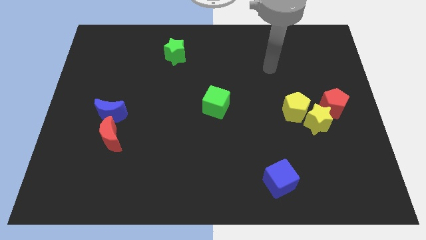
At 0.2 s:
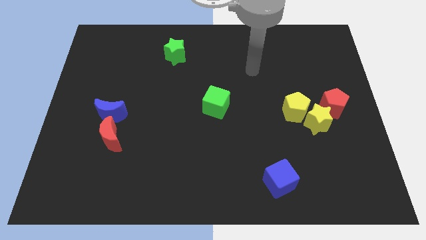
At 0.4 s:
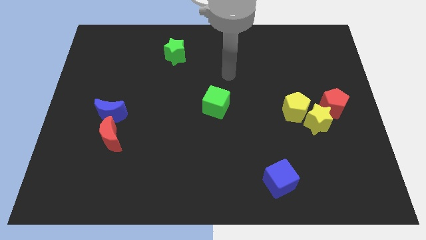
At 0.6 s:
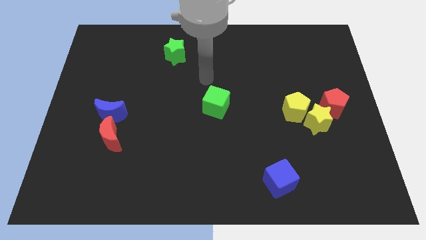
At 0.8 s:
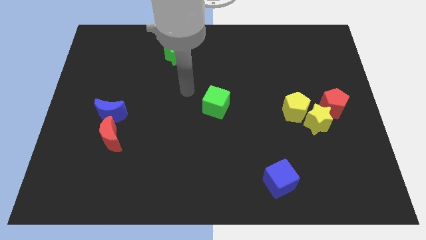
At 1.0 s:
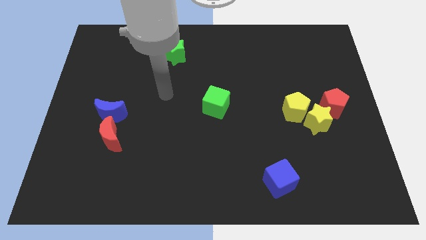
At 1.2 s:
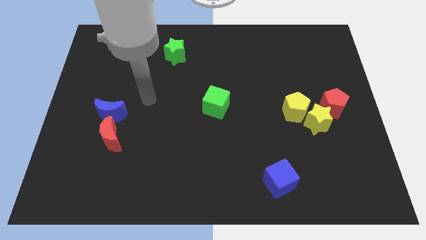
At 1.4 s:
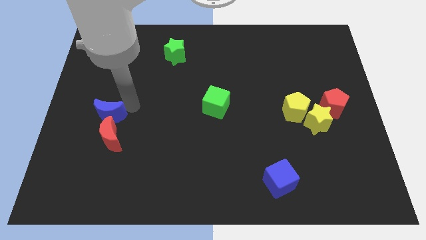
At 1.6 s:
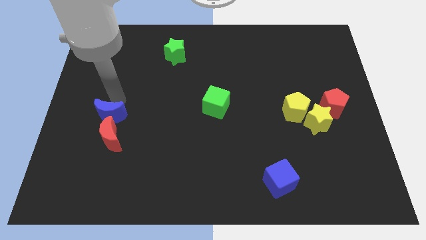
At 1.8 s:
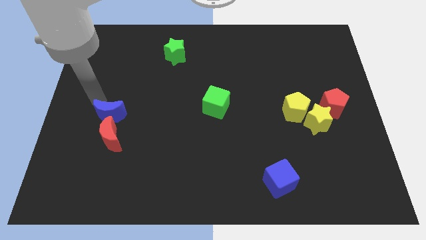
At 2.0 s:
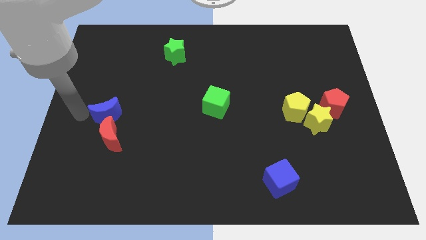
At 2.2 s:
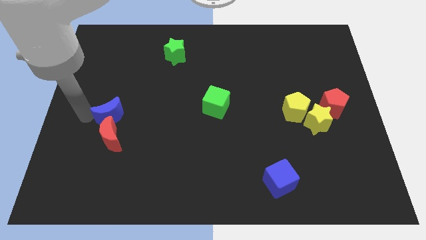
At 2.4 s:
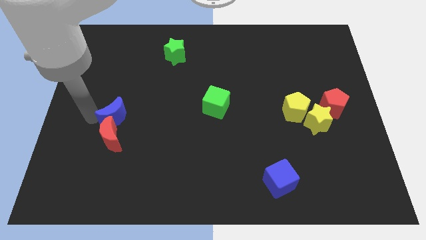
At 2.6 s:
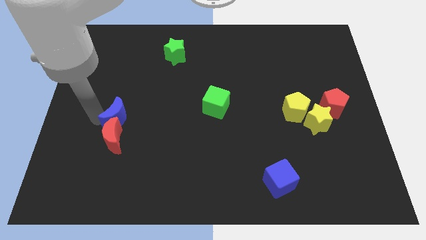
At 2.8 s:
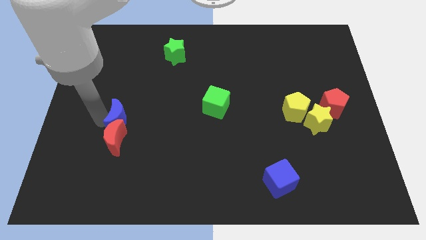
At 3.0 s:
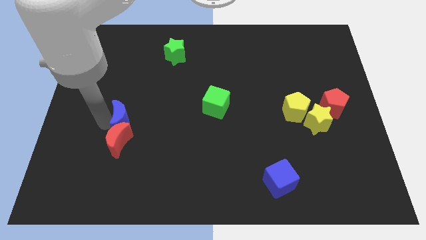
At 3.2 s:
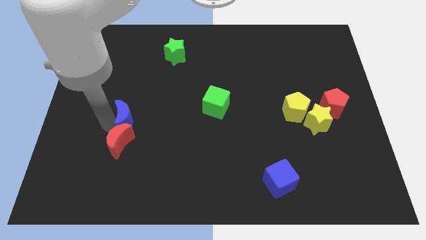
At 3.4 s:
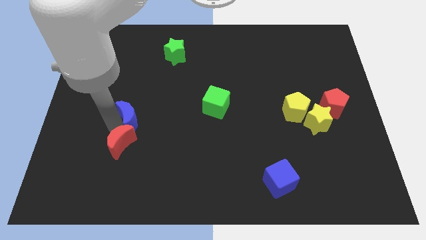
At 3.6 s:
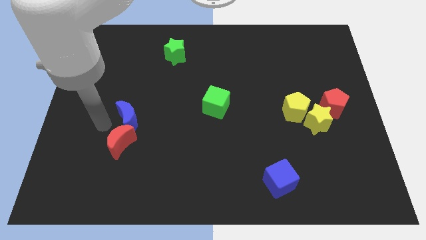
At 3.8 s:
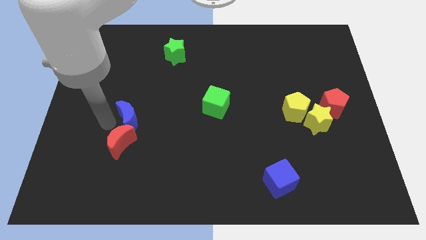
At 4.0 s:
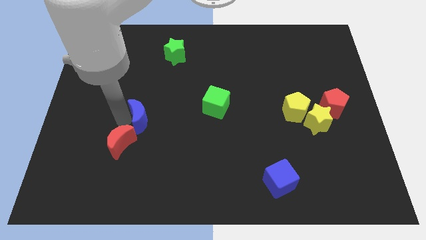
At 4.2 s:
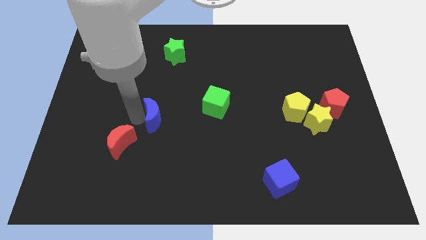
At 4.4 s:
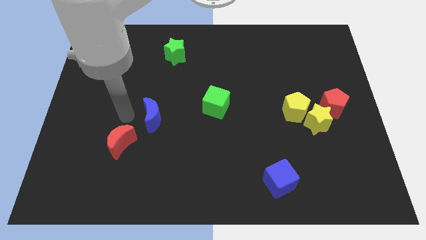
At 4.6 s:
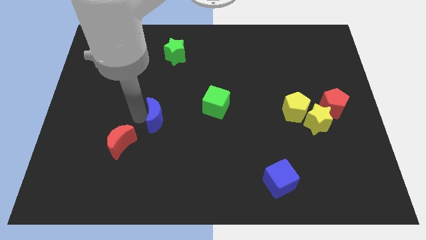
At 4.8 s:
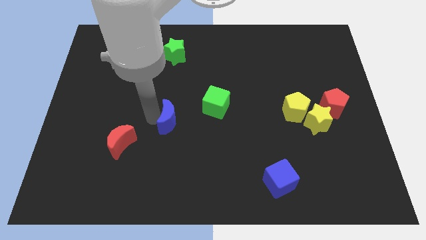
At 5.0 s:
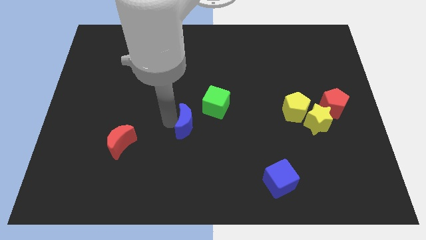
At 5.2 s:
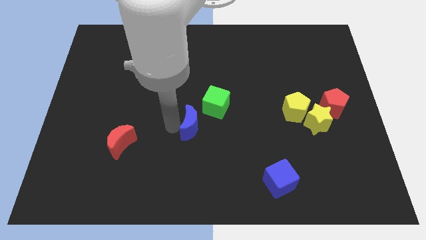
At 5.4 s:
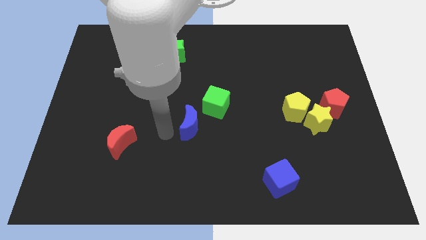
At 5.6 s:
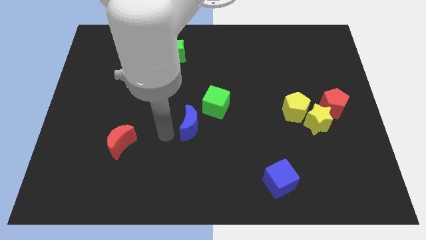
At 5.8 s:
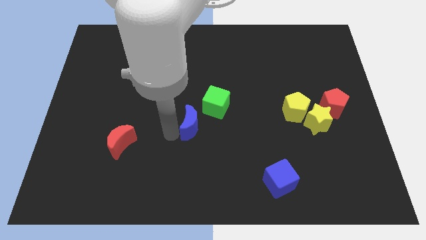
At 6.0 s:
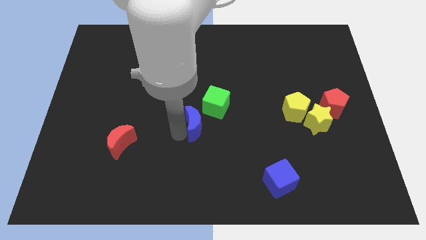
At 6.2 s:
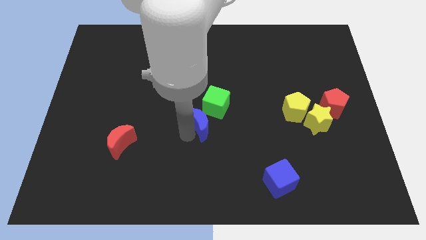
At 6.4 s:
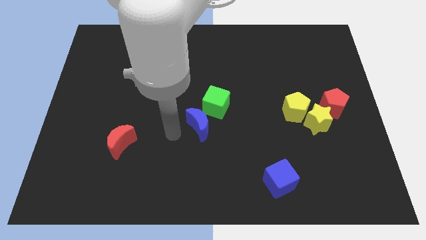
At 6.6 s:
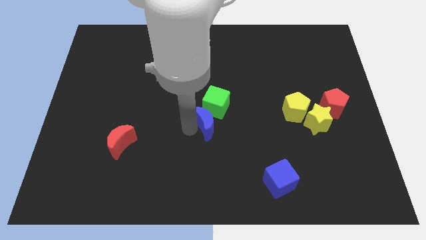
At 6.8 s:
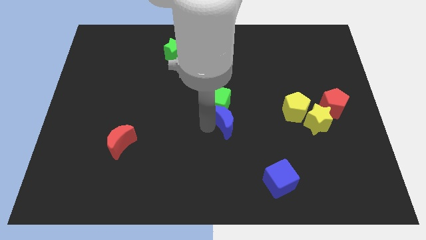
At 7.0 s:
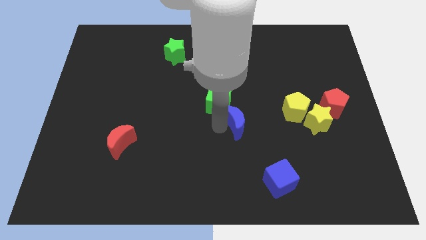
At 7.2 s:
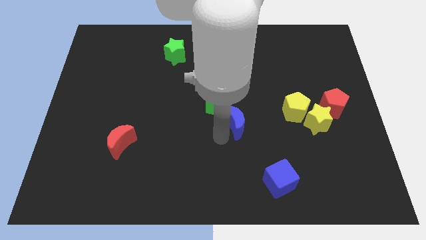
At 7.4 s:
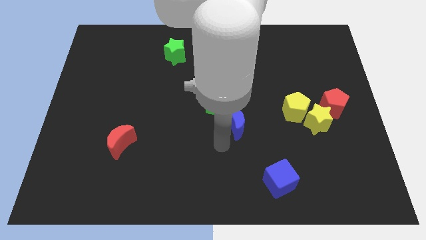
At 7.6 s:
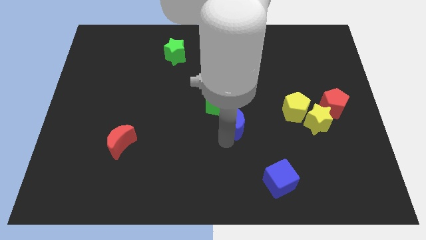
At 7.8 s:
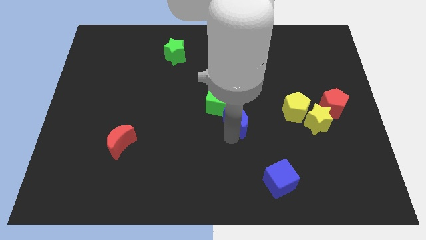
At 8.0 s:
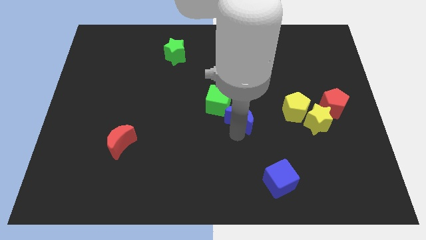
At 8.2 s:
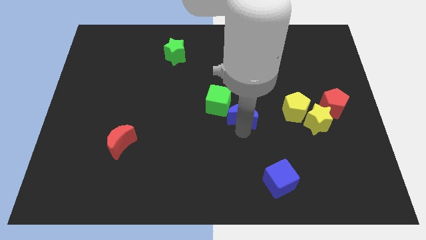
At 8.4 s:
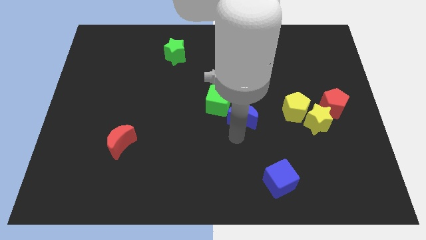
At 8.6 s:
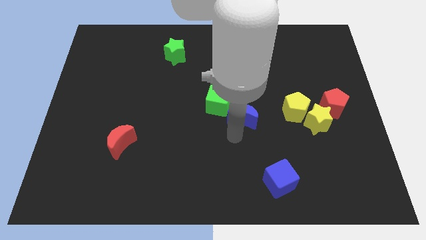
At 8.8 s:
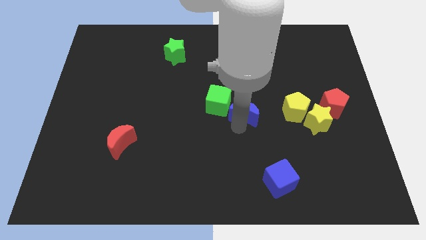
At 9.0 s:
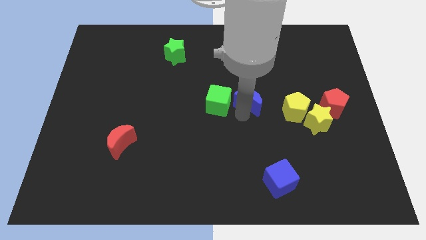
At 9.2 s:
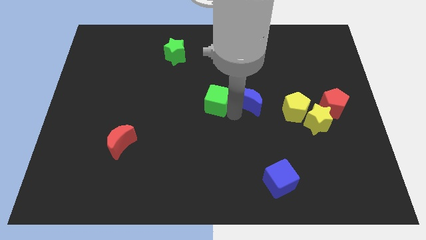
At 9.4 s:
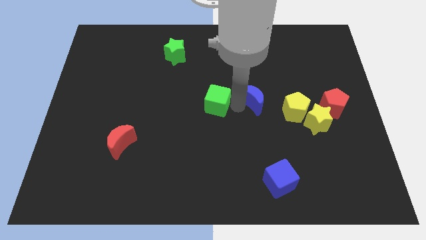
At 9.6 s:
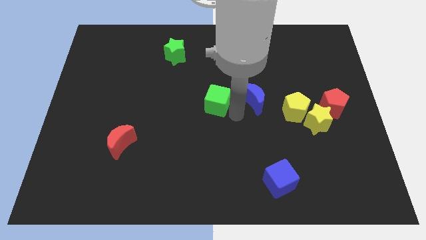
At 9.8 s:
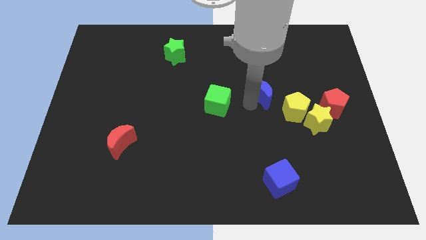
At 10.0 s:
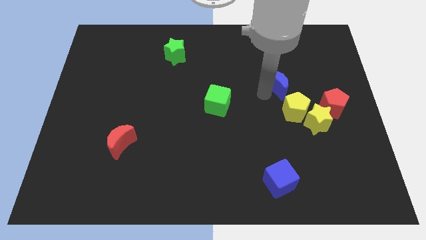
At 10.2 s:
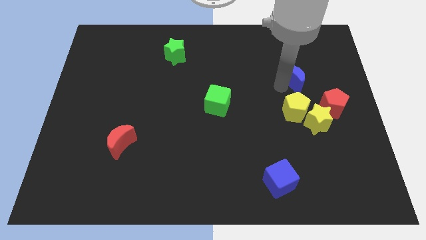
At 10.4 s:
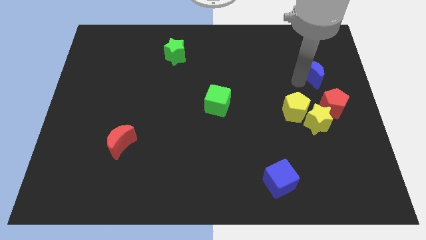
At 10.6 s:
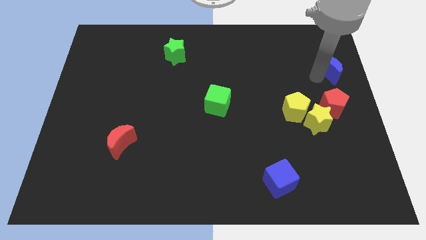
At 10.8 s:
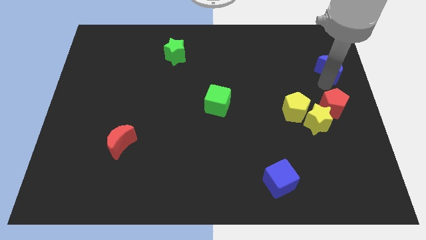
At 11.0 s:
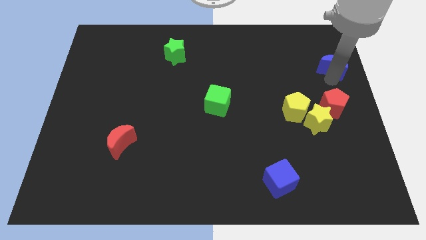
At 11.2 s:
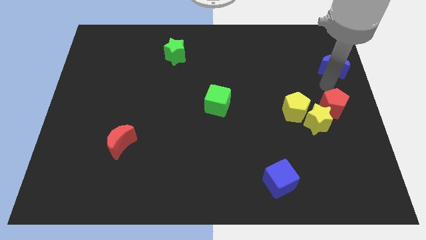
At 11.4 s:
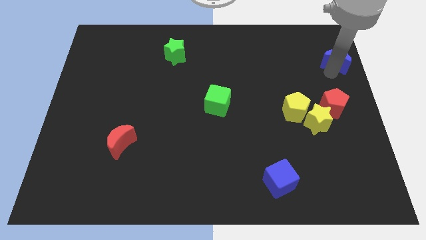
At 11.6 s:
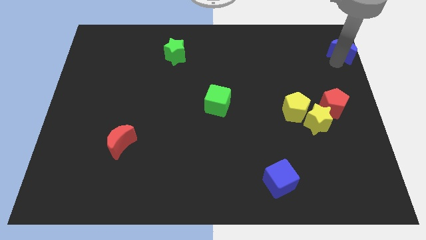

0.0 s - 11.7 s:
move the blue moon to the top right

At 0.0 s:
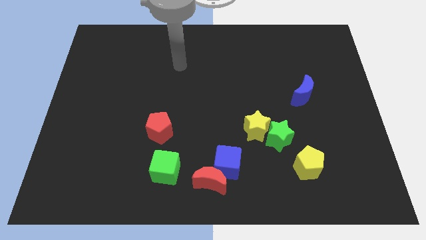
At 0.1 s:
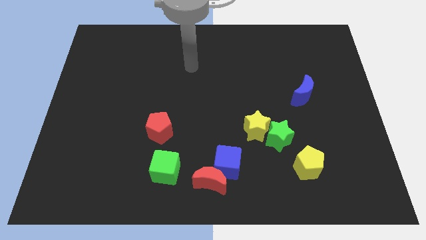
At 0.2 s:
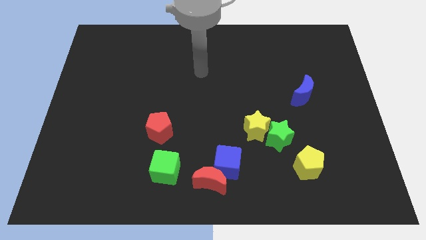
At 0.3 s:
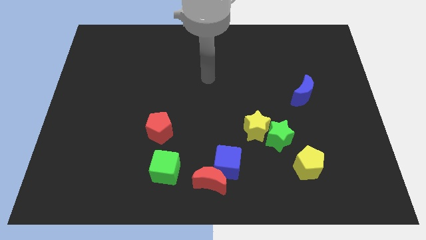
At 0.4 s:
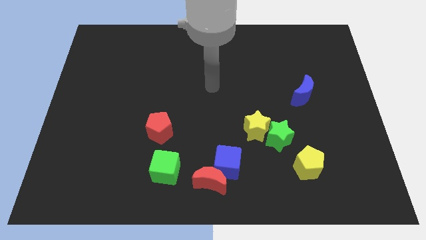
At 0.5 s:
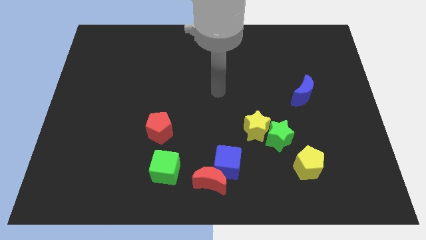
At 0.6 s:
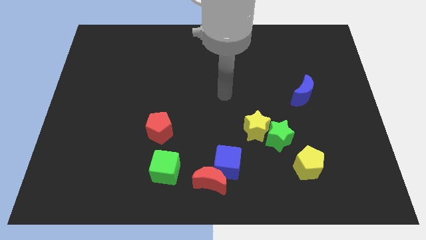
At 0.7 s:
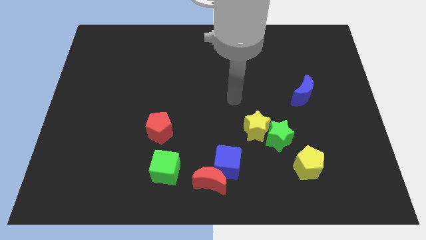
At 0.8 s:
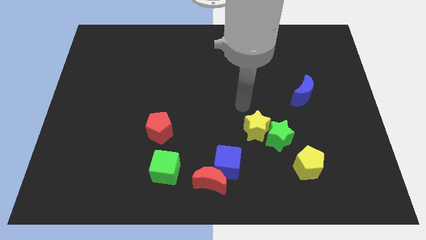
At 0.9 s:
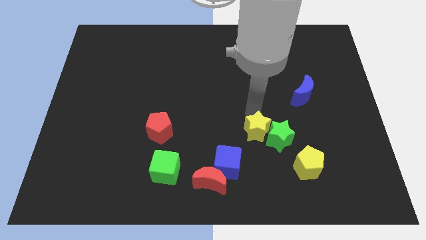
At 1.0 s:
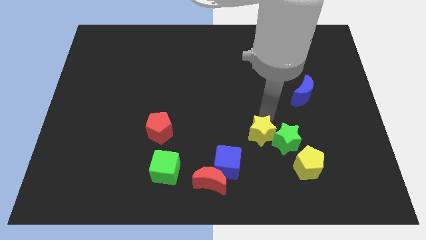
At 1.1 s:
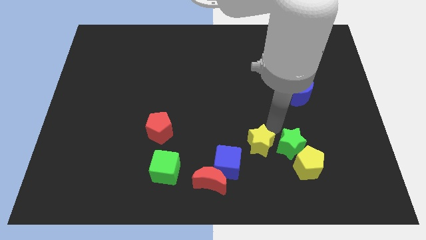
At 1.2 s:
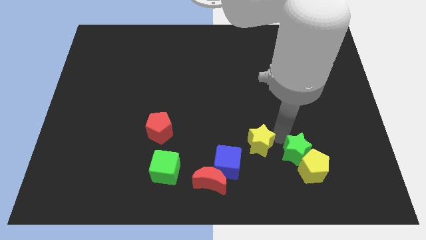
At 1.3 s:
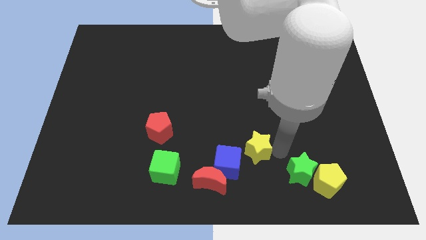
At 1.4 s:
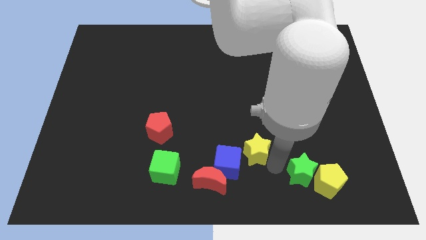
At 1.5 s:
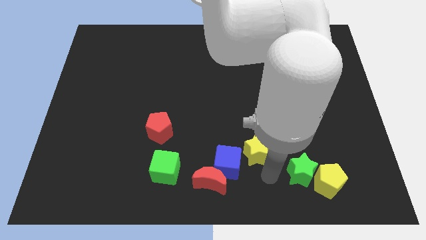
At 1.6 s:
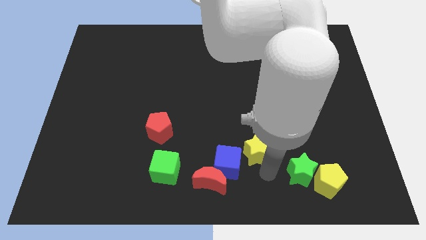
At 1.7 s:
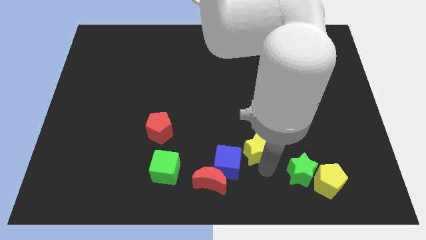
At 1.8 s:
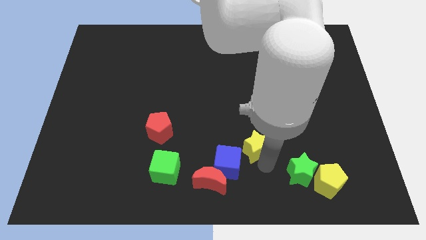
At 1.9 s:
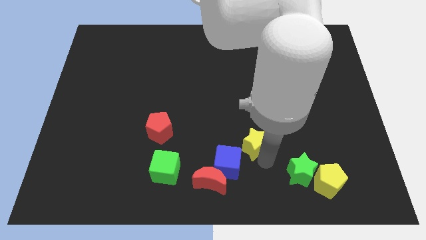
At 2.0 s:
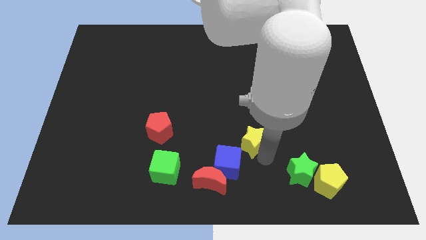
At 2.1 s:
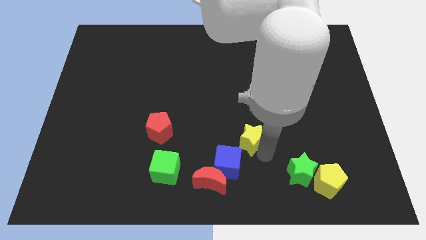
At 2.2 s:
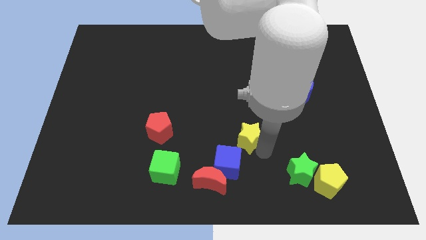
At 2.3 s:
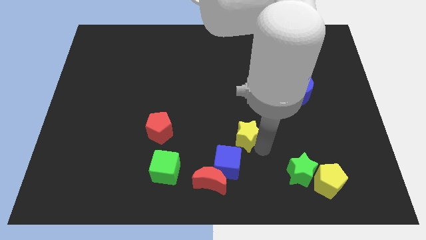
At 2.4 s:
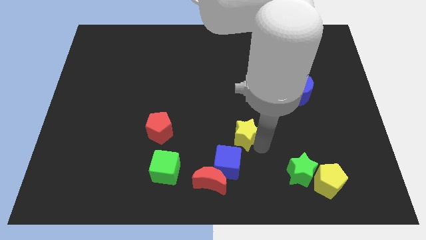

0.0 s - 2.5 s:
move the yellow star to the center
